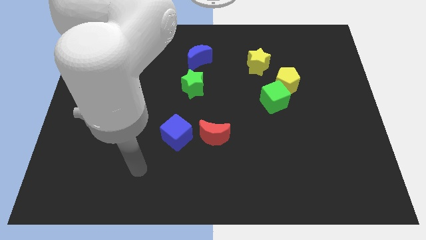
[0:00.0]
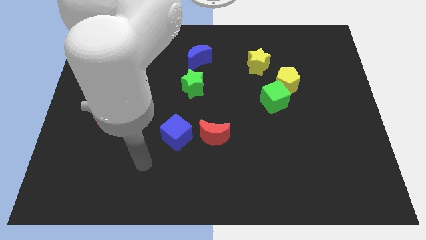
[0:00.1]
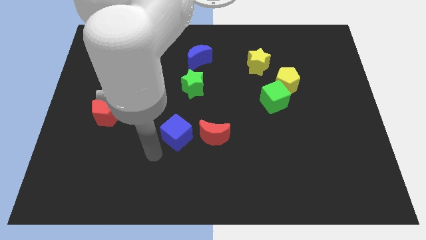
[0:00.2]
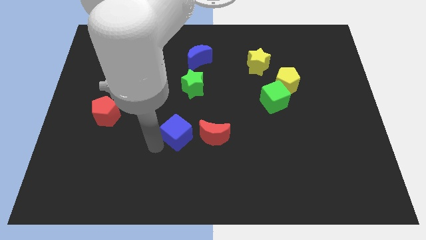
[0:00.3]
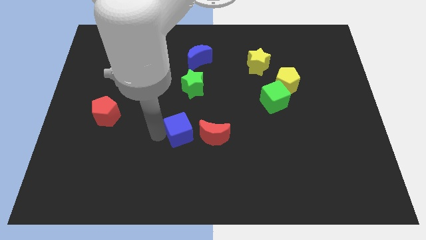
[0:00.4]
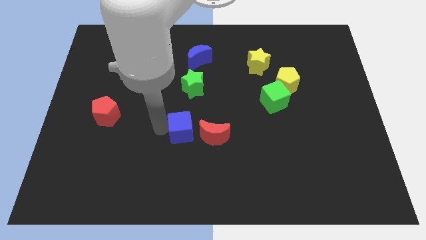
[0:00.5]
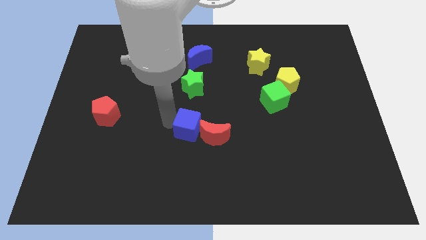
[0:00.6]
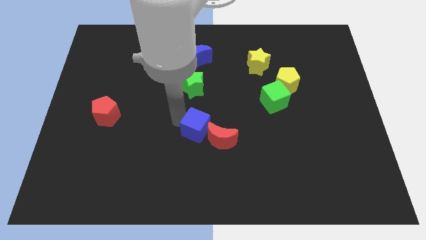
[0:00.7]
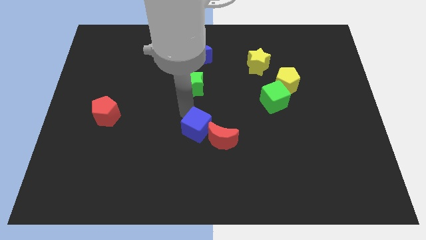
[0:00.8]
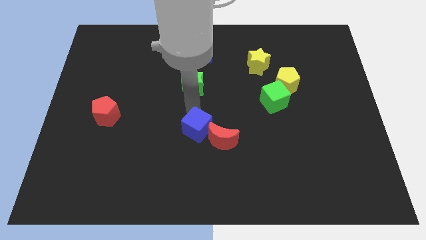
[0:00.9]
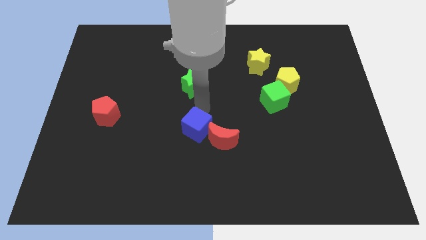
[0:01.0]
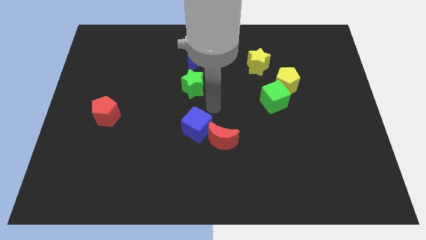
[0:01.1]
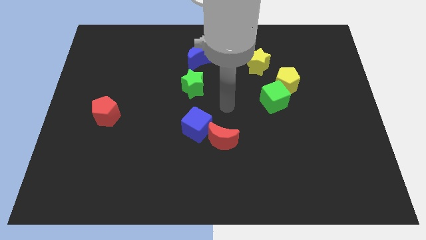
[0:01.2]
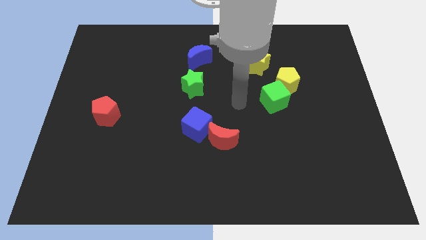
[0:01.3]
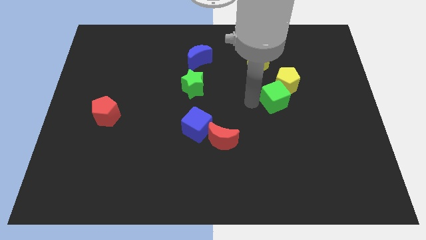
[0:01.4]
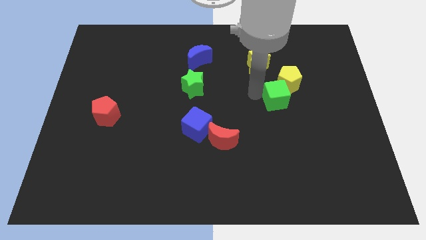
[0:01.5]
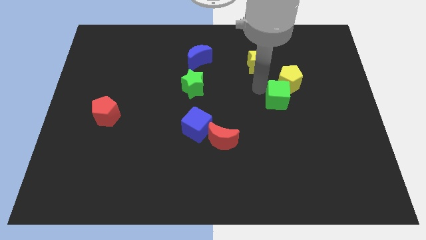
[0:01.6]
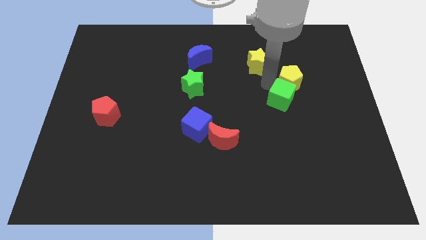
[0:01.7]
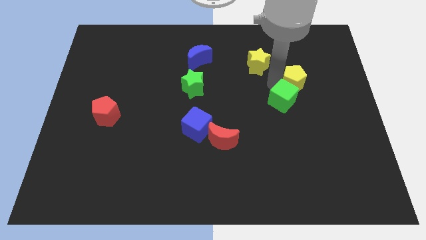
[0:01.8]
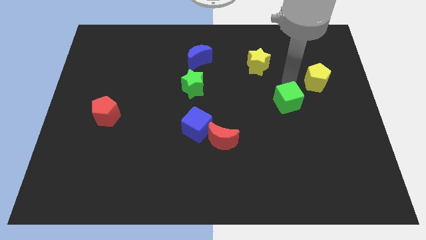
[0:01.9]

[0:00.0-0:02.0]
move the green cube away from the yellow pentagon

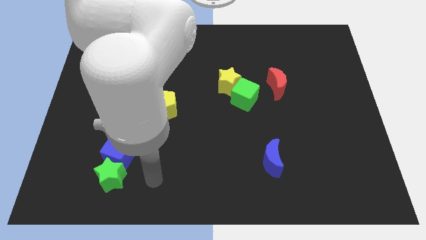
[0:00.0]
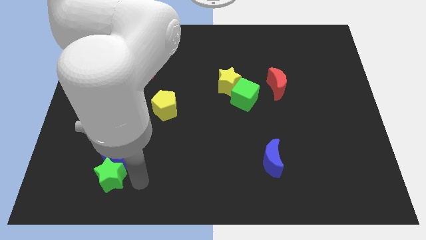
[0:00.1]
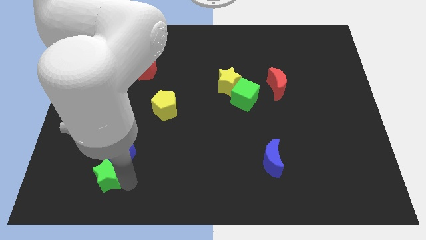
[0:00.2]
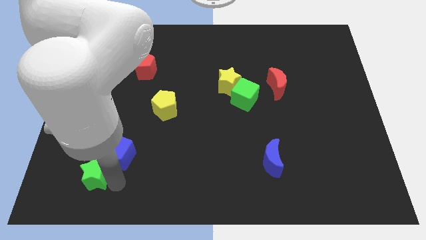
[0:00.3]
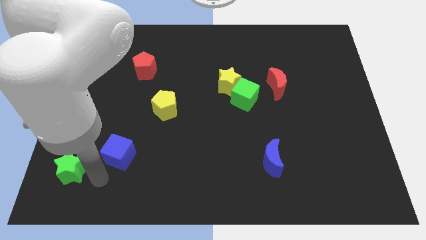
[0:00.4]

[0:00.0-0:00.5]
pull the blue cube apart from the green star

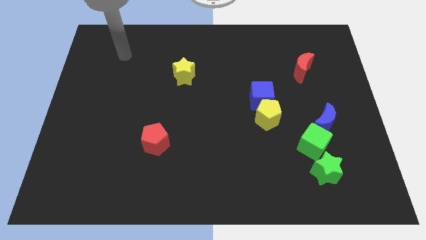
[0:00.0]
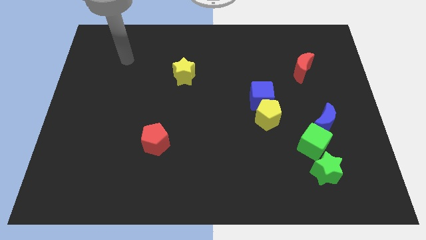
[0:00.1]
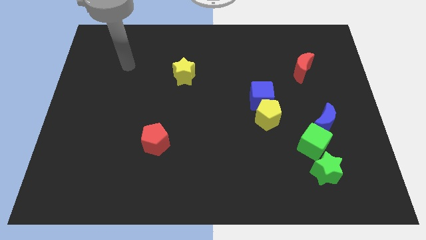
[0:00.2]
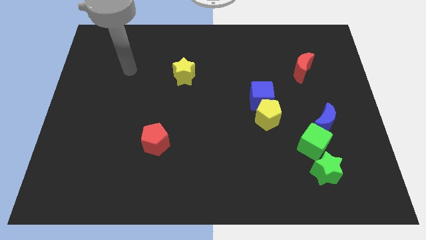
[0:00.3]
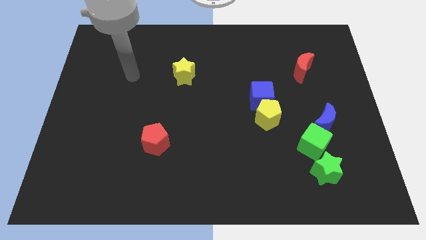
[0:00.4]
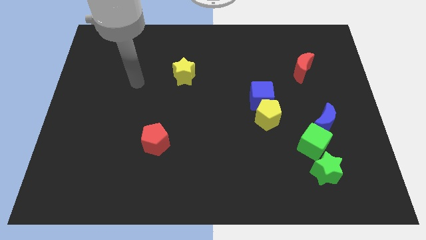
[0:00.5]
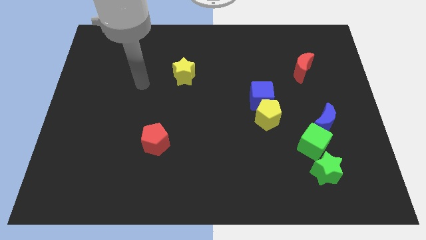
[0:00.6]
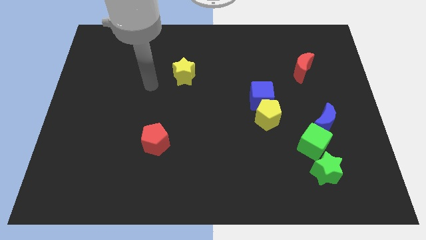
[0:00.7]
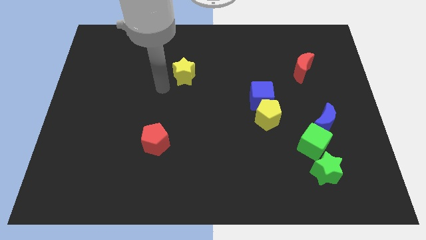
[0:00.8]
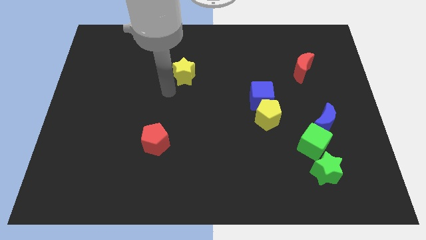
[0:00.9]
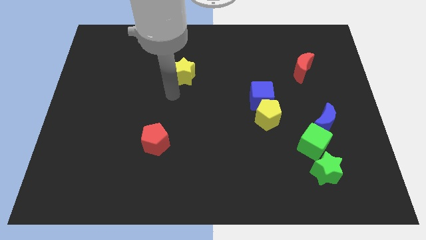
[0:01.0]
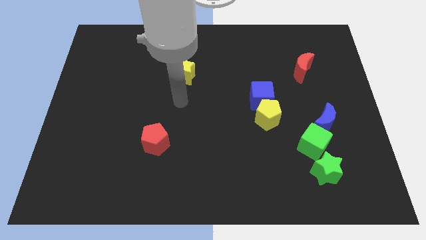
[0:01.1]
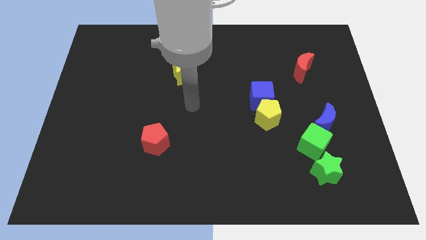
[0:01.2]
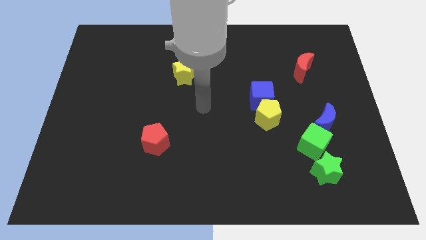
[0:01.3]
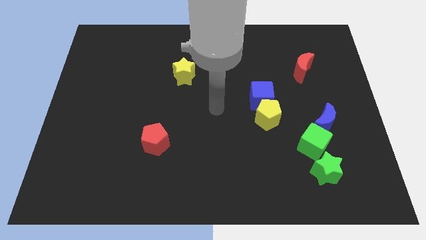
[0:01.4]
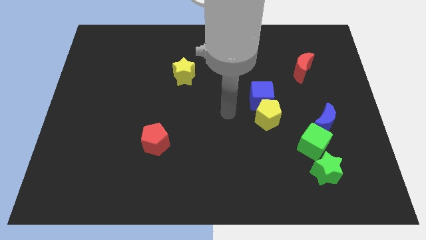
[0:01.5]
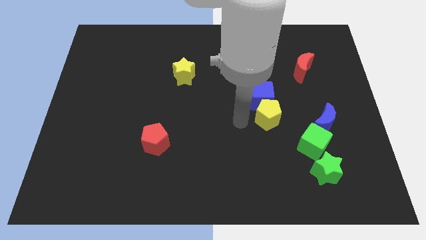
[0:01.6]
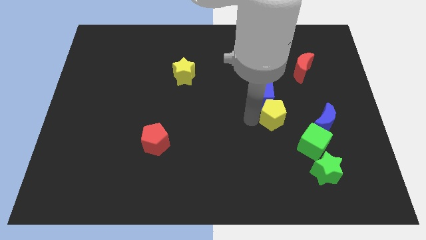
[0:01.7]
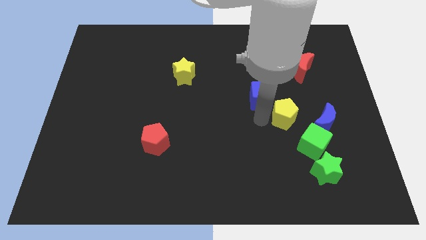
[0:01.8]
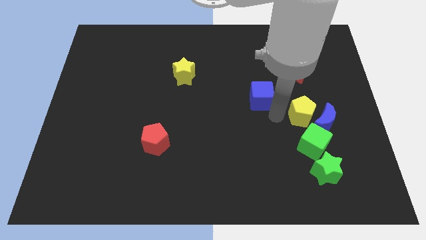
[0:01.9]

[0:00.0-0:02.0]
pull the blue cube apart from the yellow pentagon

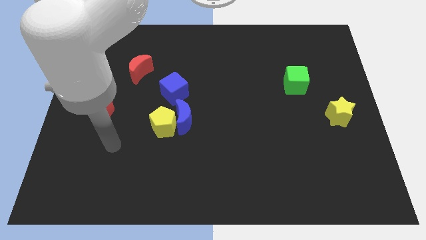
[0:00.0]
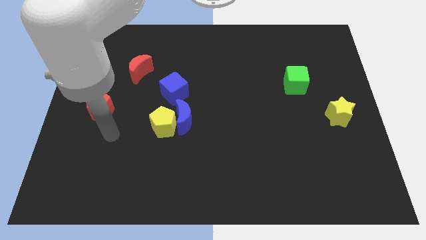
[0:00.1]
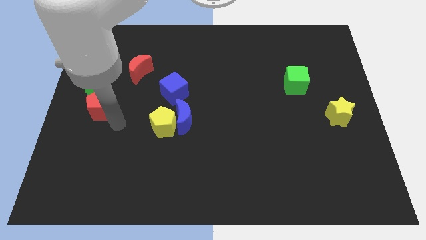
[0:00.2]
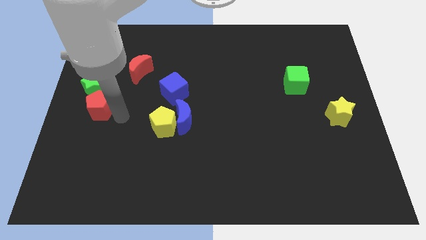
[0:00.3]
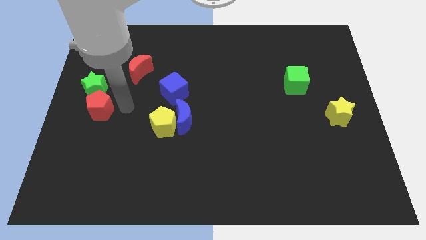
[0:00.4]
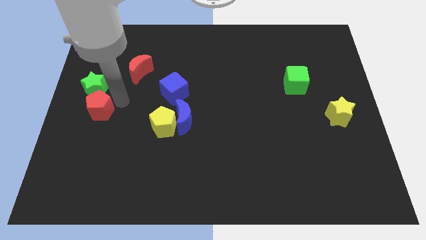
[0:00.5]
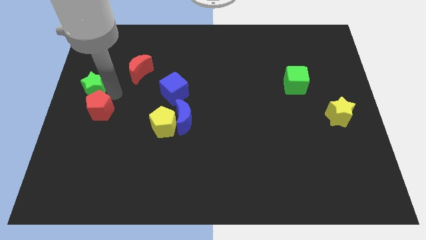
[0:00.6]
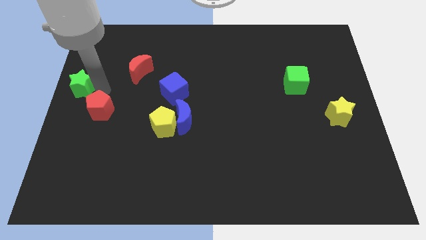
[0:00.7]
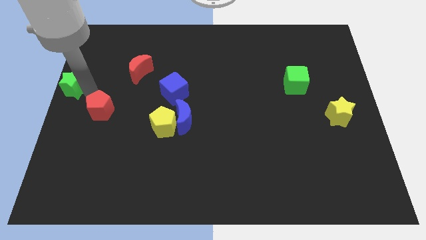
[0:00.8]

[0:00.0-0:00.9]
move the red pentagon away from the green star

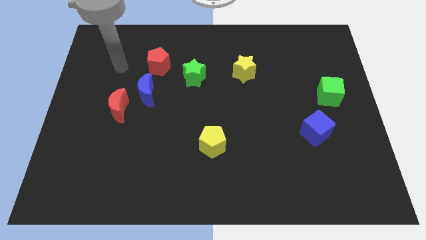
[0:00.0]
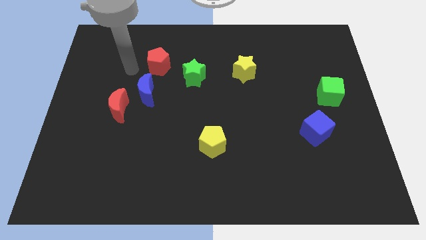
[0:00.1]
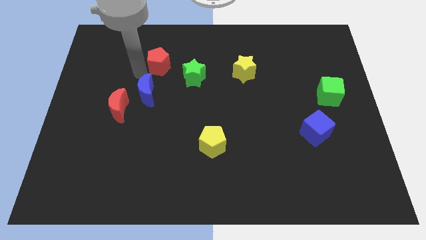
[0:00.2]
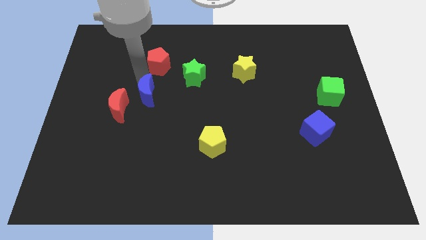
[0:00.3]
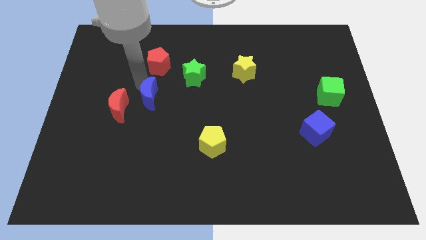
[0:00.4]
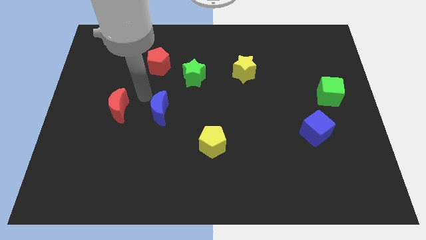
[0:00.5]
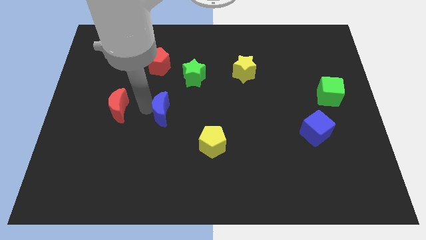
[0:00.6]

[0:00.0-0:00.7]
pull the red moon apart from the blue moon

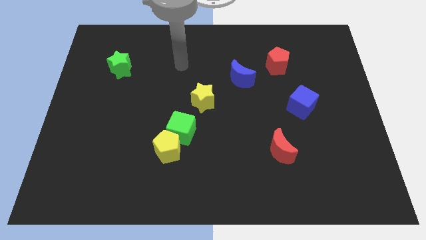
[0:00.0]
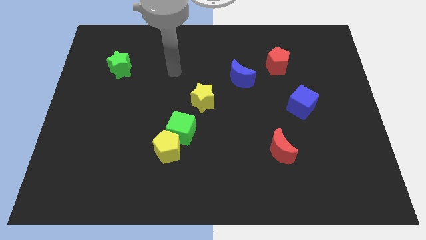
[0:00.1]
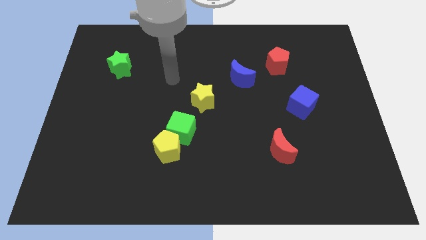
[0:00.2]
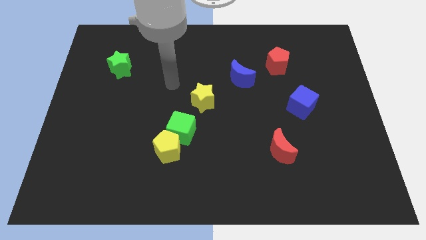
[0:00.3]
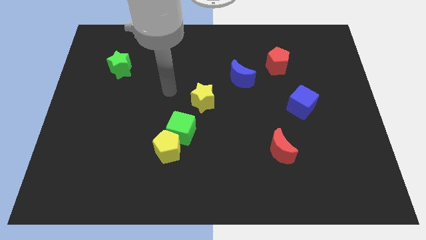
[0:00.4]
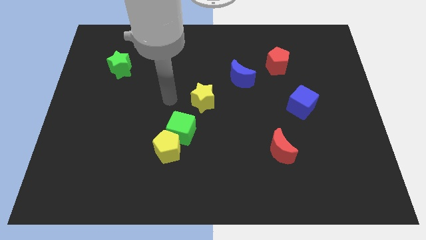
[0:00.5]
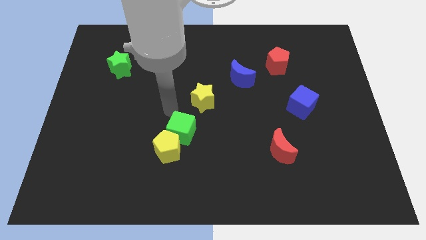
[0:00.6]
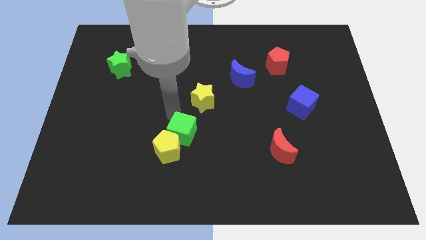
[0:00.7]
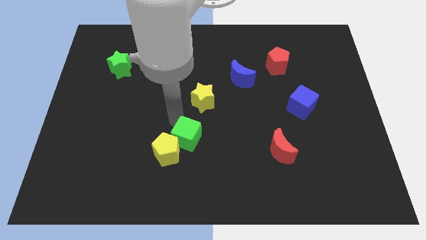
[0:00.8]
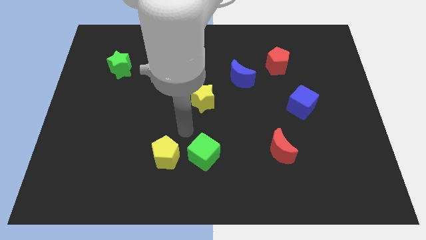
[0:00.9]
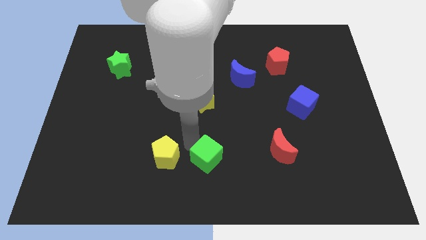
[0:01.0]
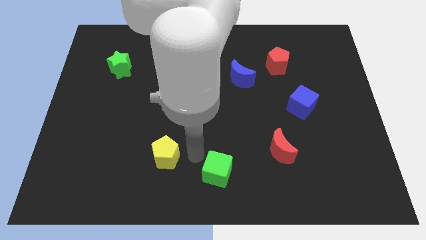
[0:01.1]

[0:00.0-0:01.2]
pull the yellow pentagon apart from the green cube

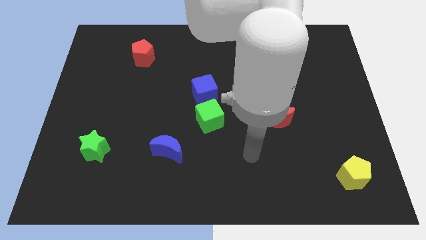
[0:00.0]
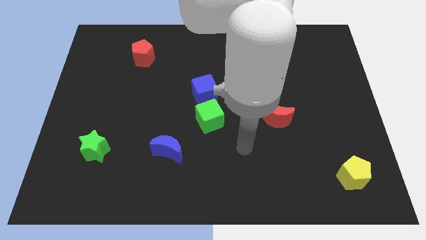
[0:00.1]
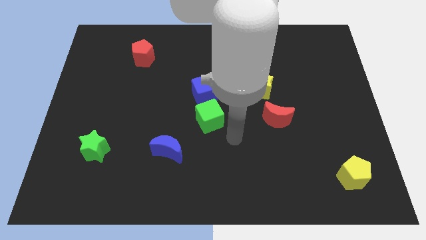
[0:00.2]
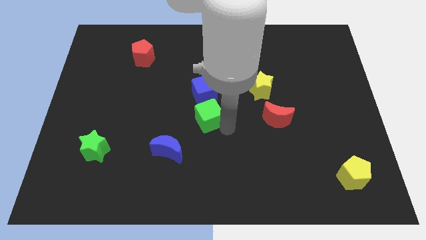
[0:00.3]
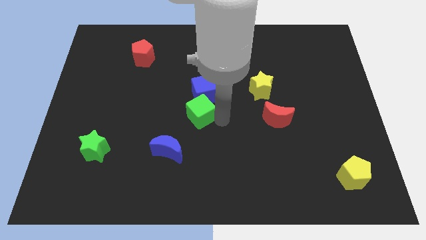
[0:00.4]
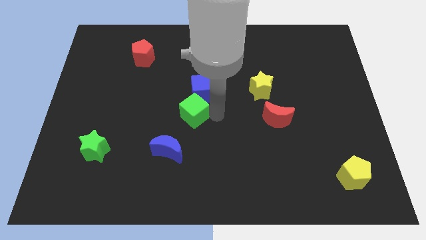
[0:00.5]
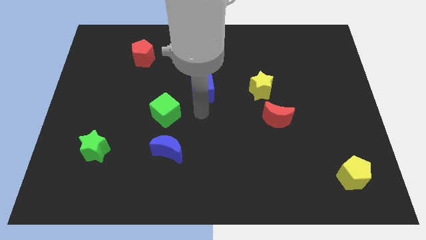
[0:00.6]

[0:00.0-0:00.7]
move the blue cube away from the green cube

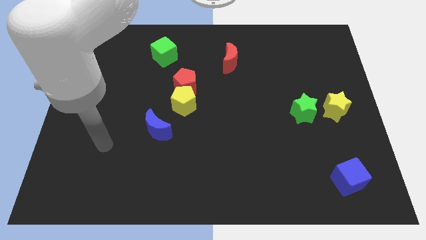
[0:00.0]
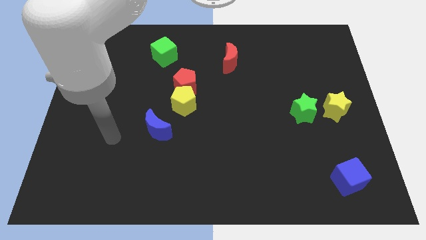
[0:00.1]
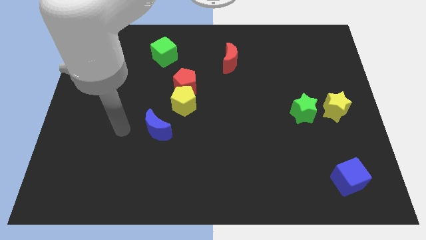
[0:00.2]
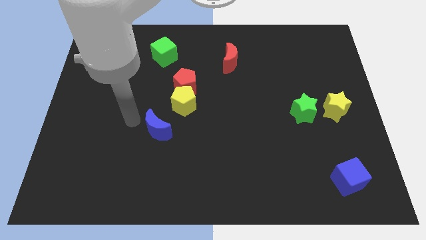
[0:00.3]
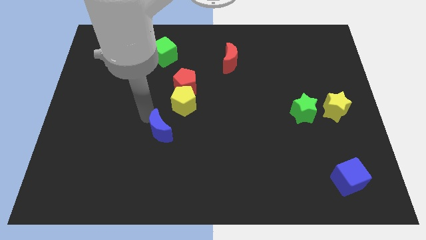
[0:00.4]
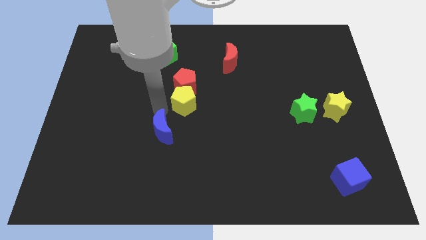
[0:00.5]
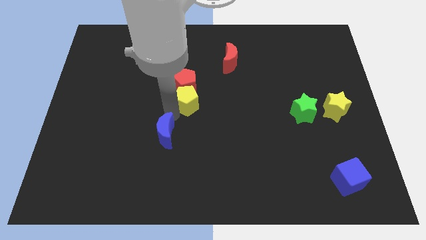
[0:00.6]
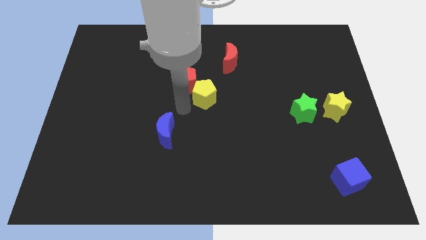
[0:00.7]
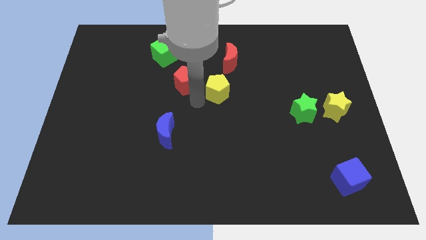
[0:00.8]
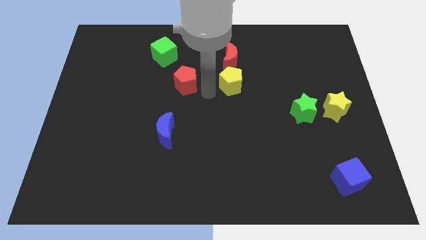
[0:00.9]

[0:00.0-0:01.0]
move the red pentagon away from the yellow pentagon

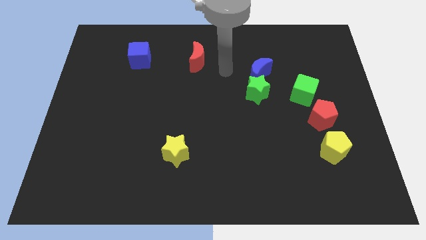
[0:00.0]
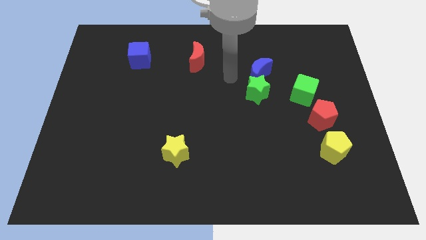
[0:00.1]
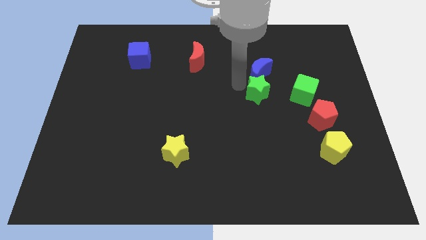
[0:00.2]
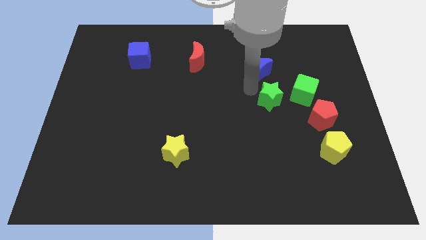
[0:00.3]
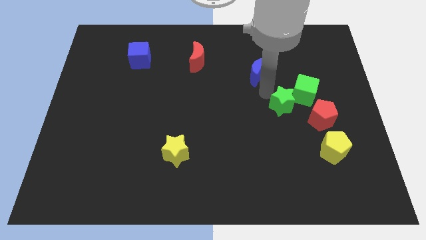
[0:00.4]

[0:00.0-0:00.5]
move the blue moon away from the green star
